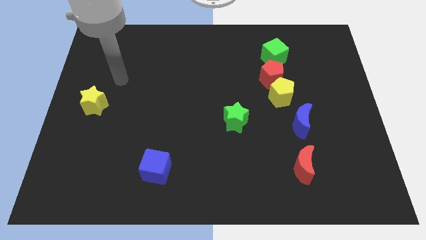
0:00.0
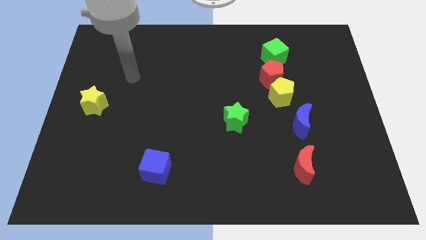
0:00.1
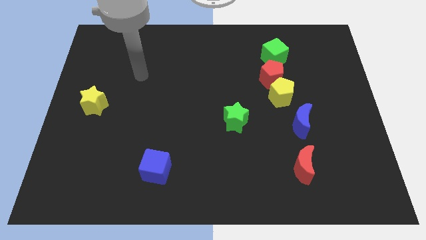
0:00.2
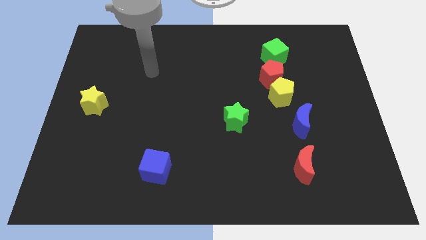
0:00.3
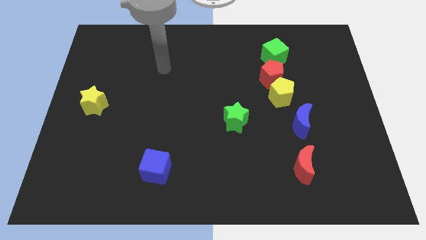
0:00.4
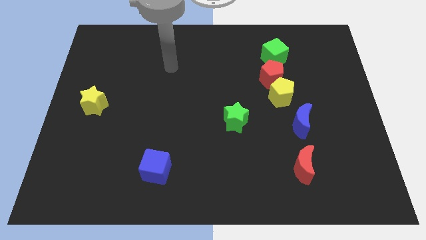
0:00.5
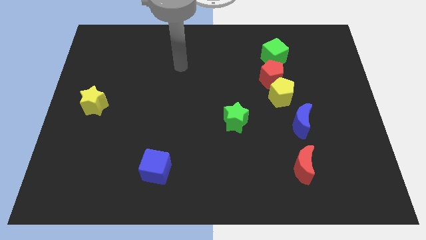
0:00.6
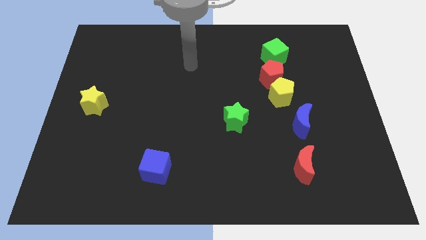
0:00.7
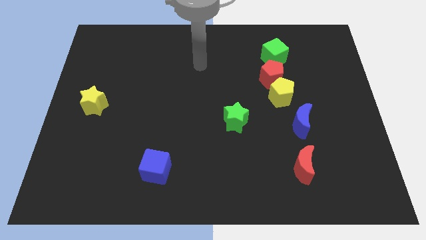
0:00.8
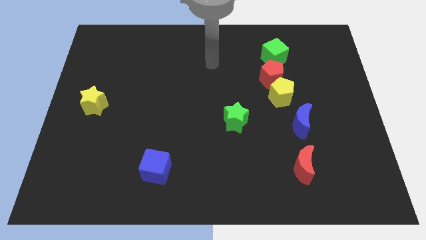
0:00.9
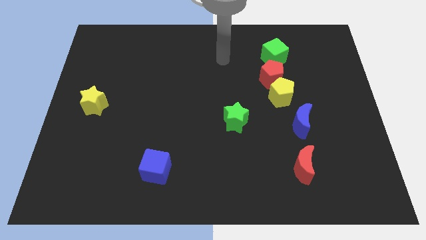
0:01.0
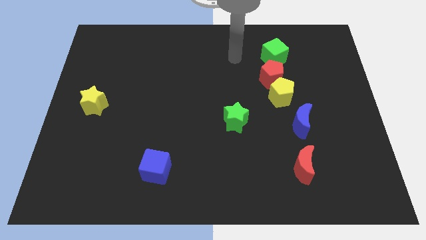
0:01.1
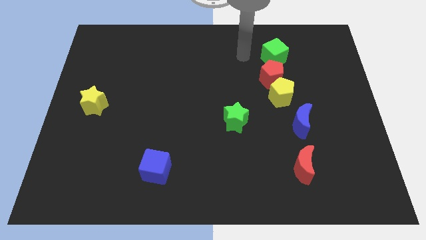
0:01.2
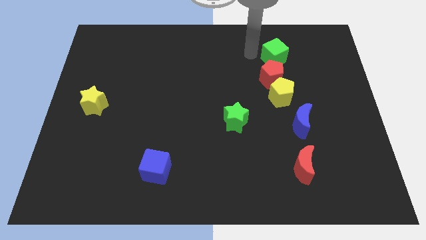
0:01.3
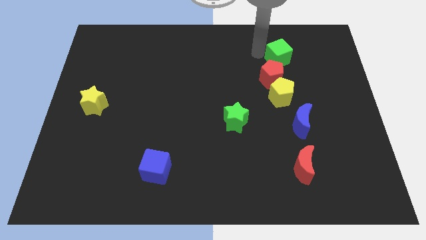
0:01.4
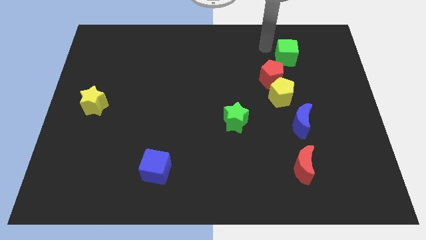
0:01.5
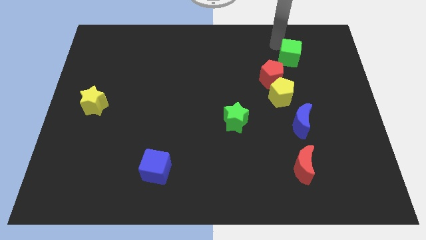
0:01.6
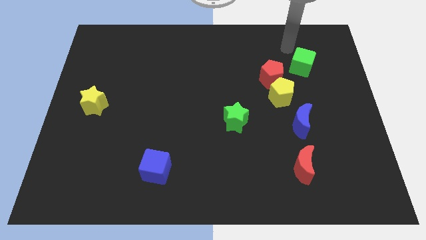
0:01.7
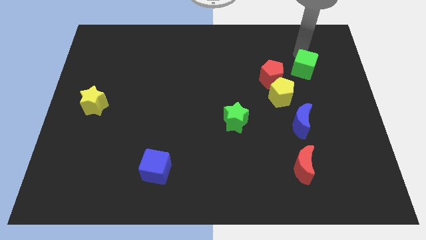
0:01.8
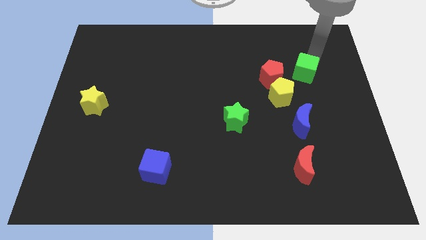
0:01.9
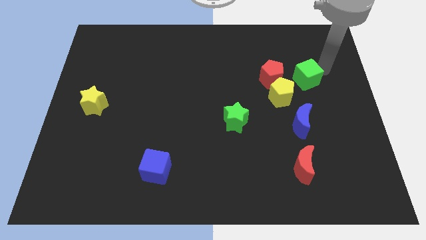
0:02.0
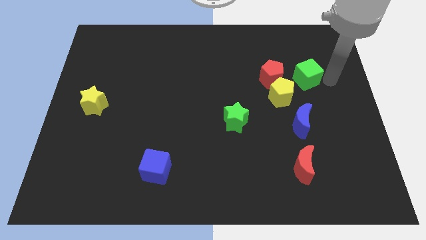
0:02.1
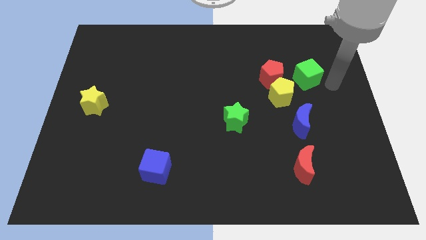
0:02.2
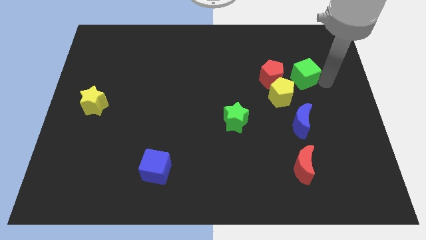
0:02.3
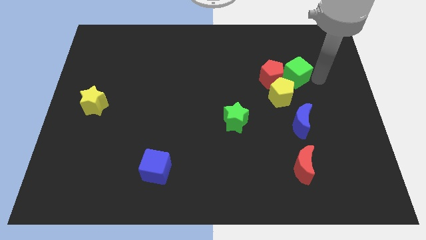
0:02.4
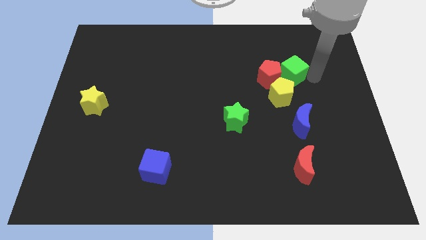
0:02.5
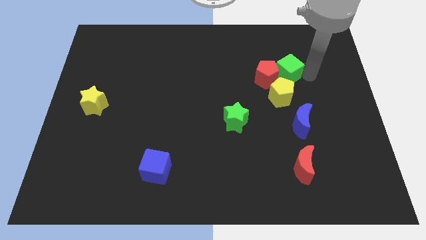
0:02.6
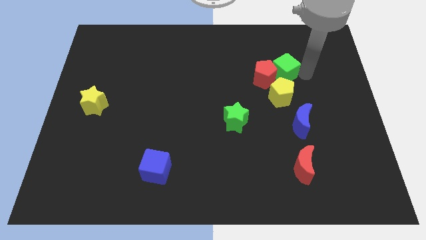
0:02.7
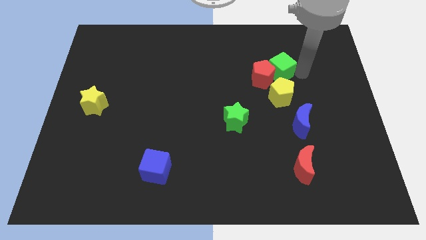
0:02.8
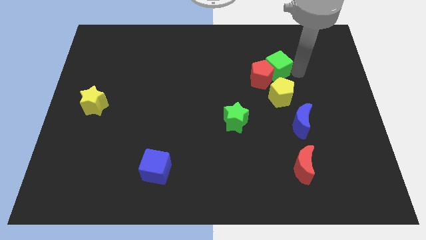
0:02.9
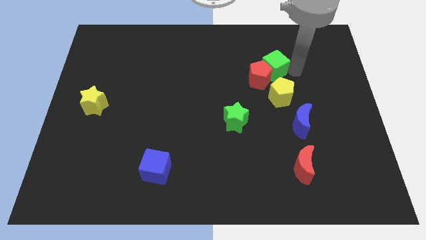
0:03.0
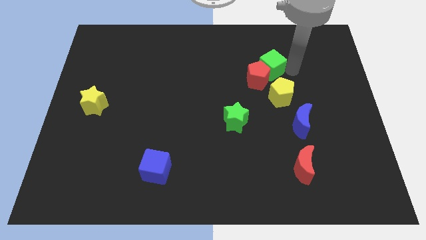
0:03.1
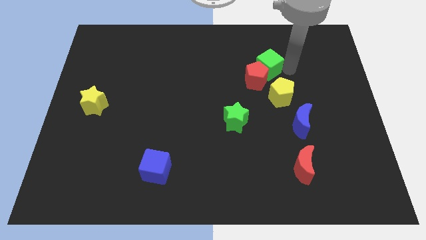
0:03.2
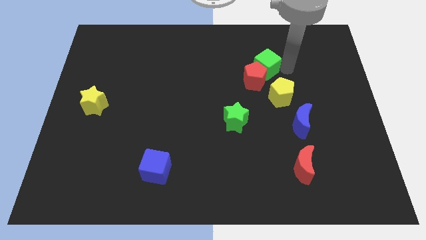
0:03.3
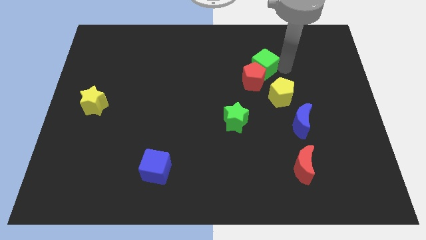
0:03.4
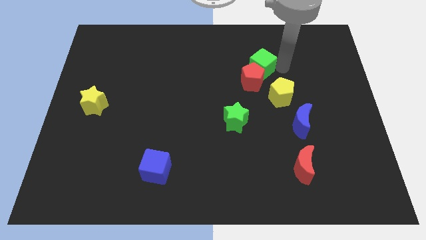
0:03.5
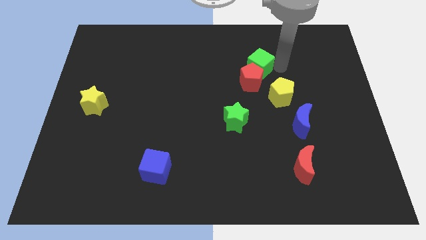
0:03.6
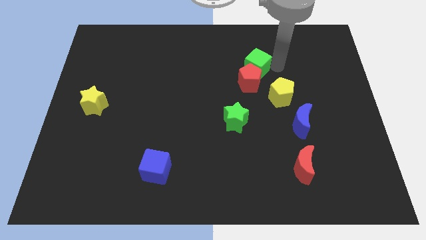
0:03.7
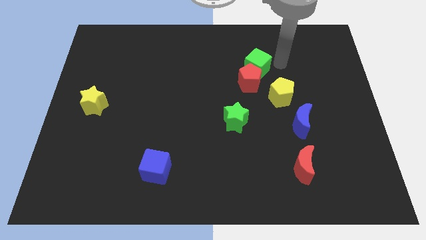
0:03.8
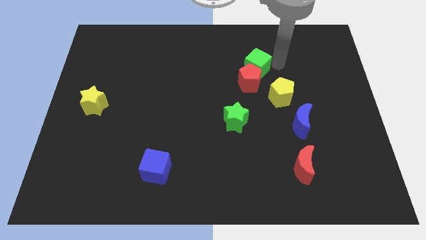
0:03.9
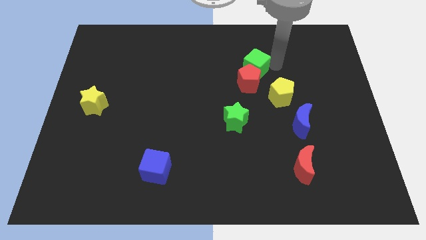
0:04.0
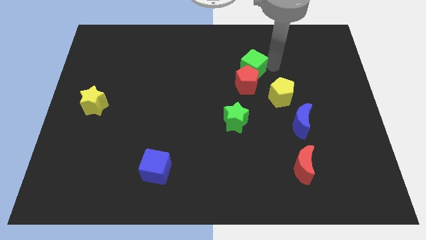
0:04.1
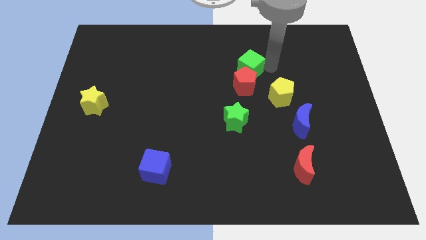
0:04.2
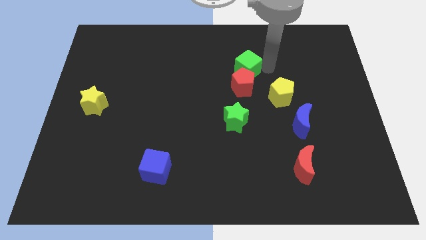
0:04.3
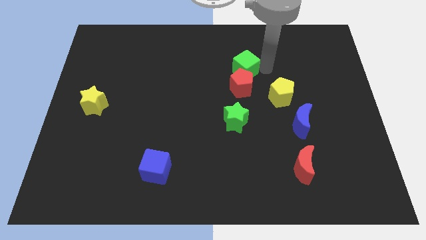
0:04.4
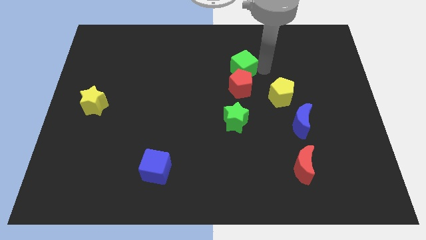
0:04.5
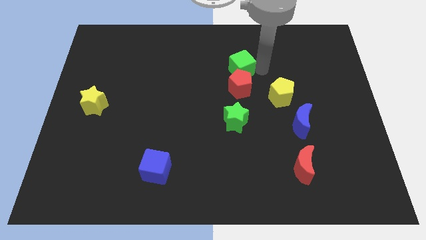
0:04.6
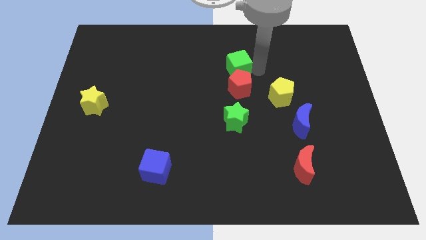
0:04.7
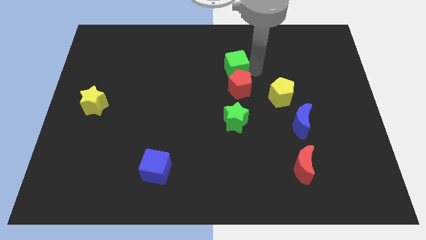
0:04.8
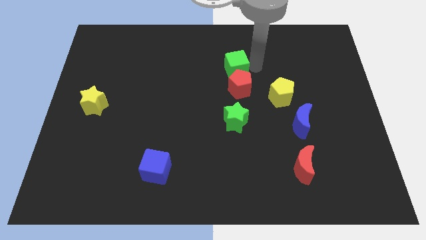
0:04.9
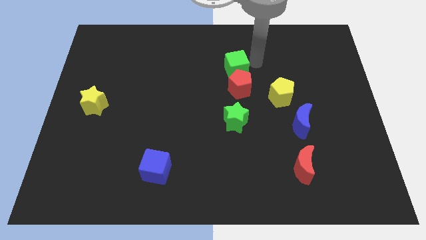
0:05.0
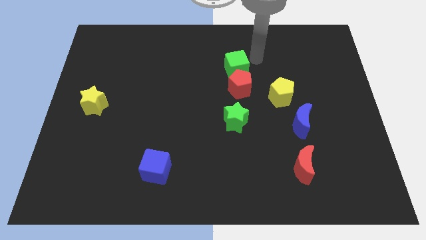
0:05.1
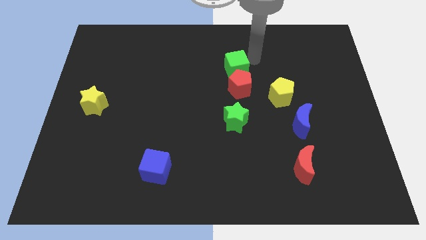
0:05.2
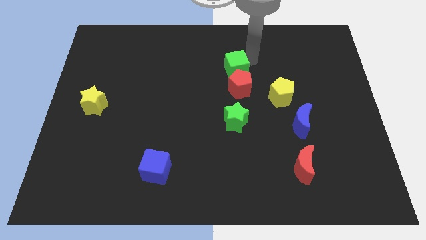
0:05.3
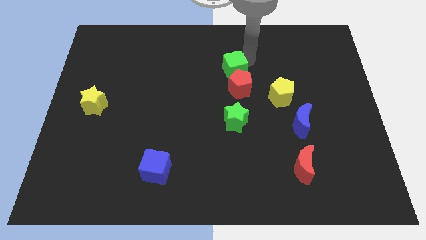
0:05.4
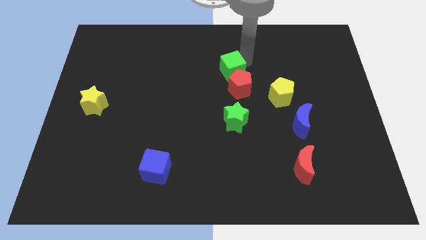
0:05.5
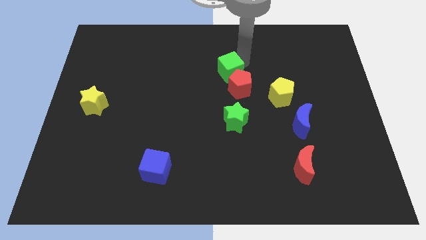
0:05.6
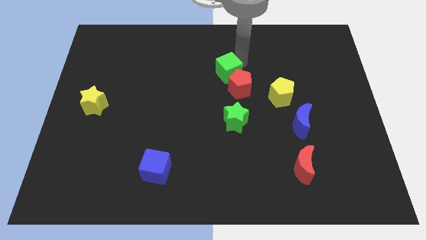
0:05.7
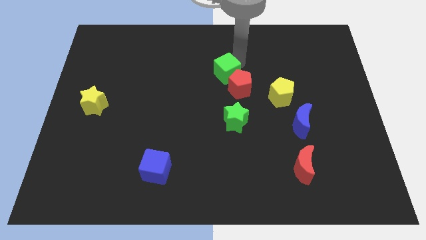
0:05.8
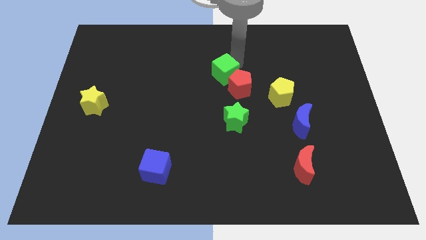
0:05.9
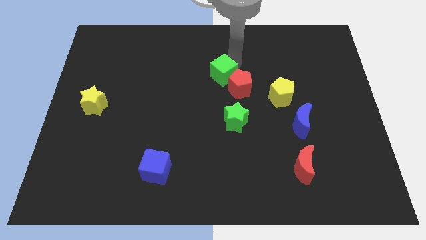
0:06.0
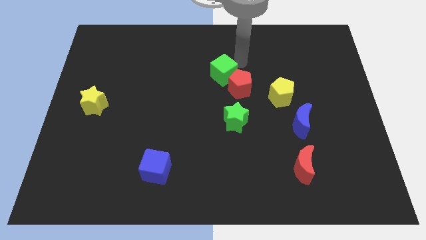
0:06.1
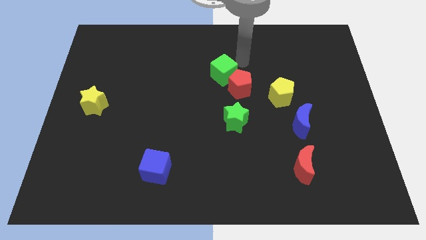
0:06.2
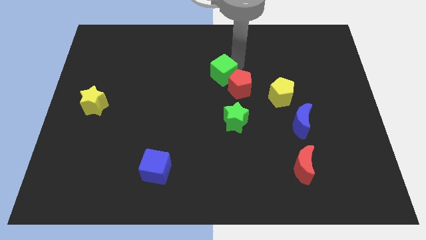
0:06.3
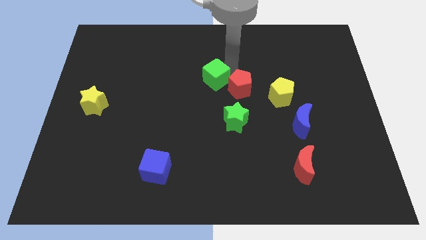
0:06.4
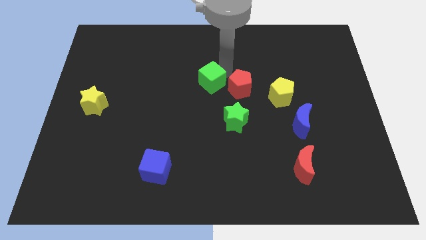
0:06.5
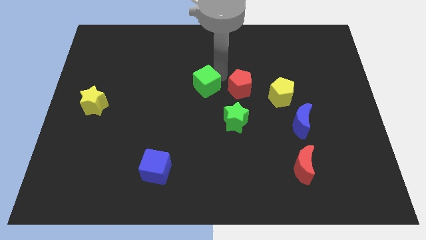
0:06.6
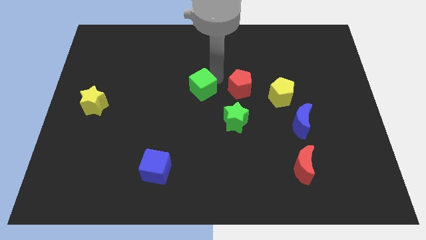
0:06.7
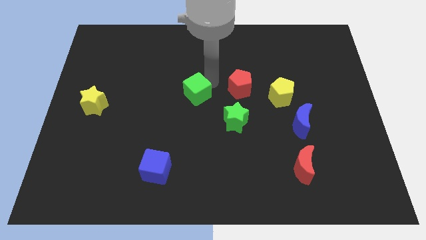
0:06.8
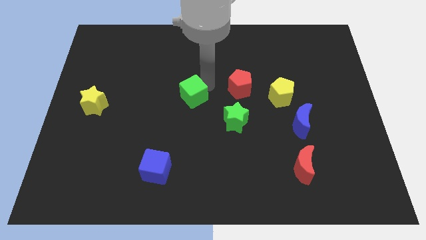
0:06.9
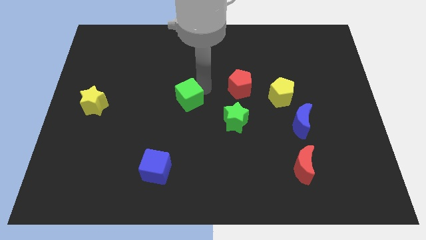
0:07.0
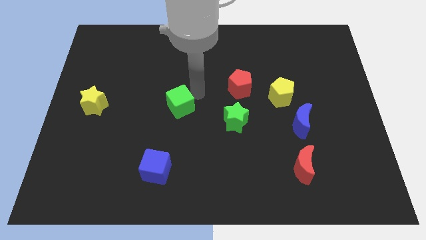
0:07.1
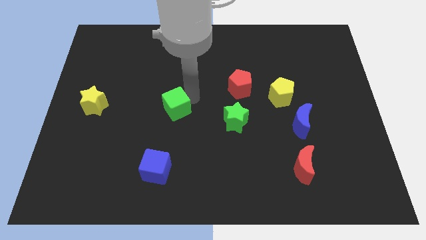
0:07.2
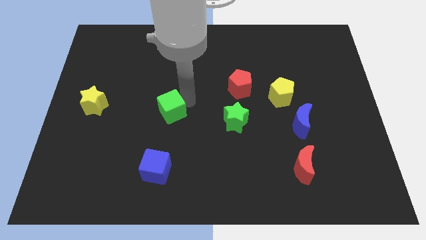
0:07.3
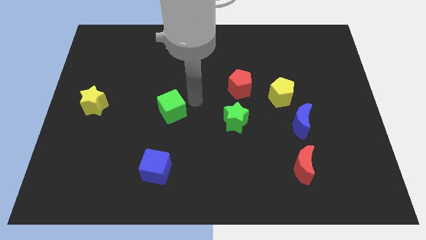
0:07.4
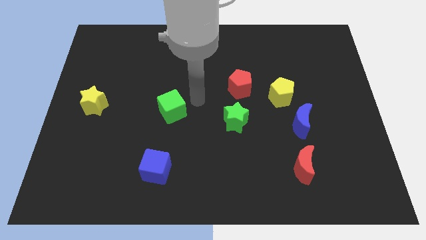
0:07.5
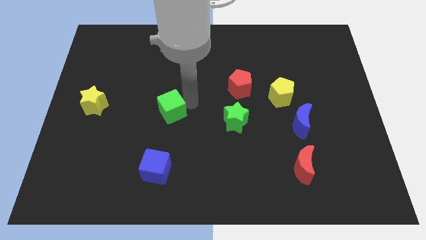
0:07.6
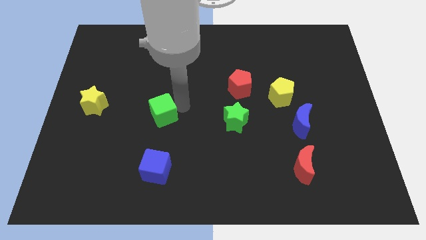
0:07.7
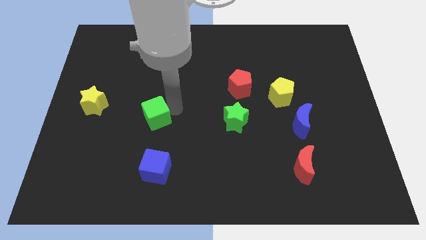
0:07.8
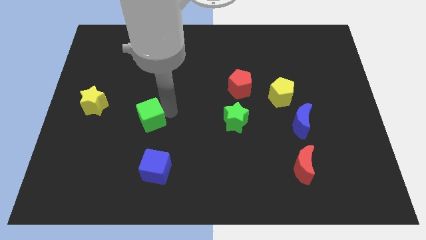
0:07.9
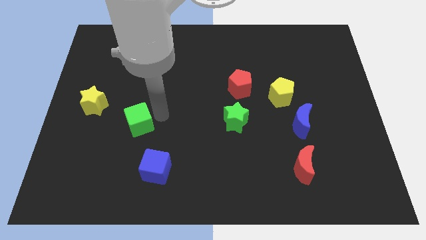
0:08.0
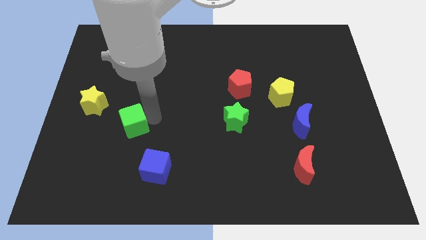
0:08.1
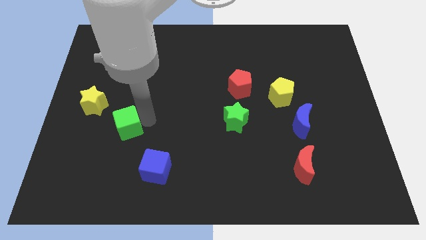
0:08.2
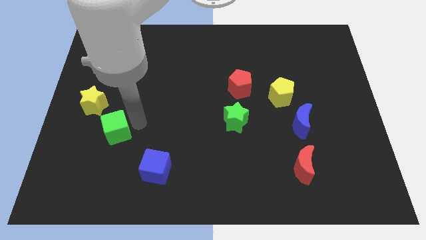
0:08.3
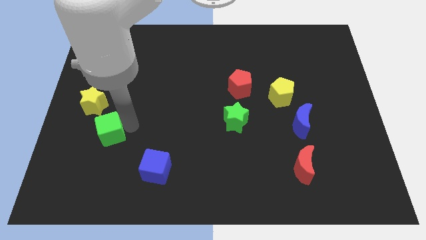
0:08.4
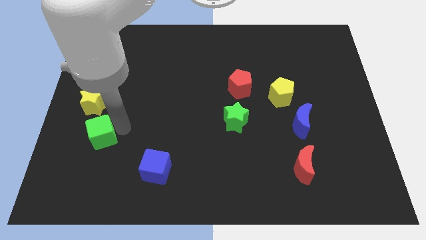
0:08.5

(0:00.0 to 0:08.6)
move the green cube below the yellow star
